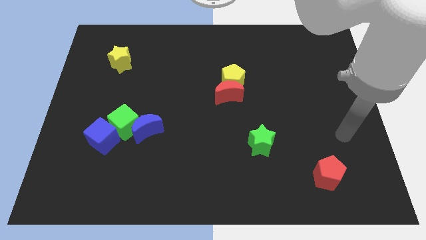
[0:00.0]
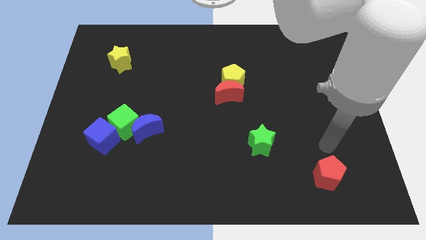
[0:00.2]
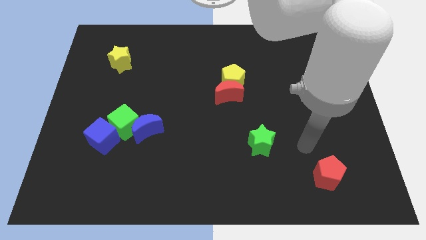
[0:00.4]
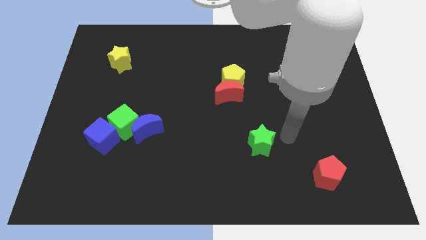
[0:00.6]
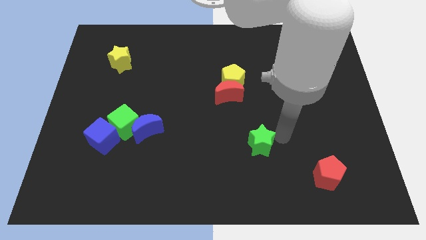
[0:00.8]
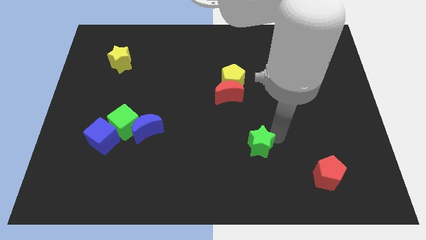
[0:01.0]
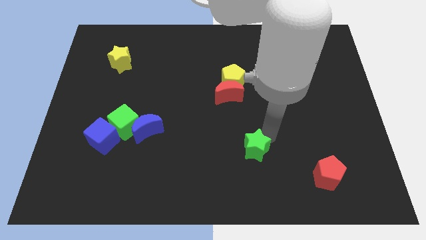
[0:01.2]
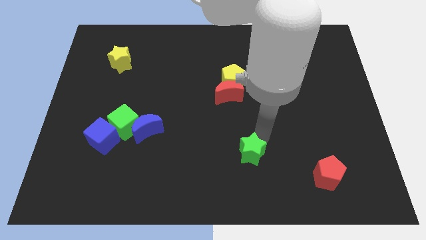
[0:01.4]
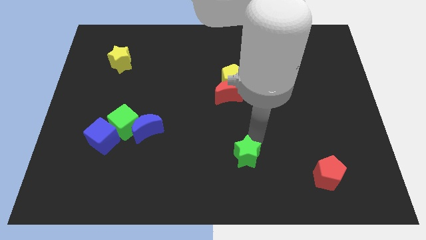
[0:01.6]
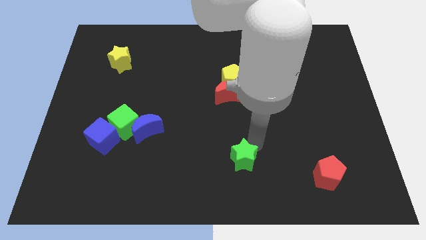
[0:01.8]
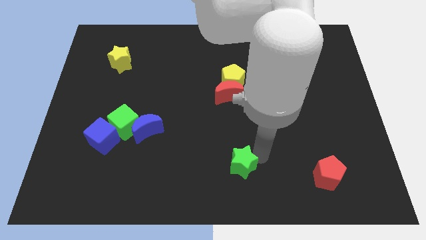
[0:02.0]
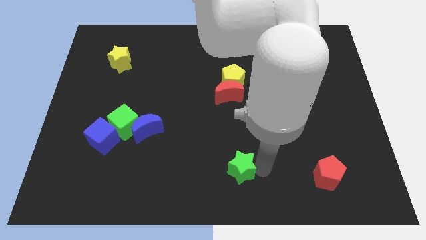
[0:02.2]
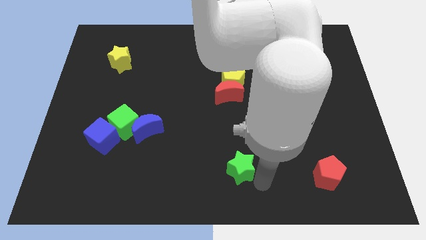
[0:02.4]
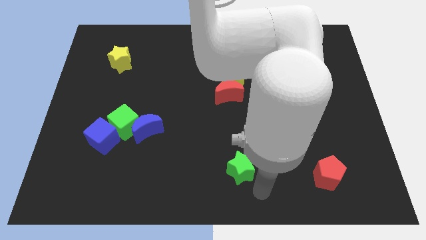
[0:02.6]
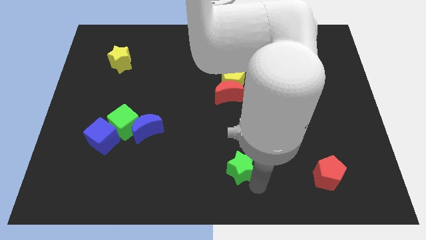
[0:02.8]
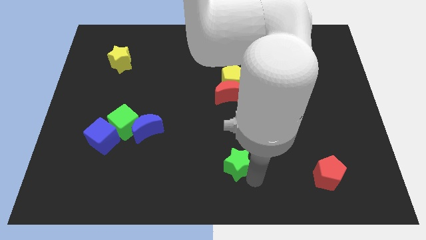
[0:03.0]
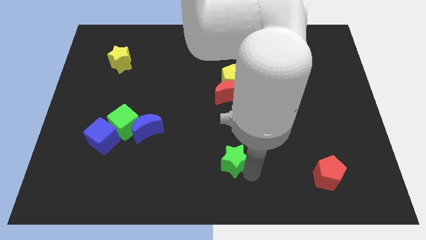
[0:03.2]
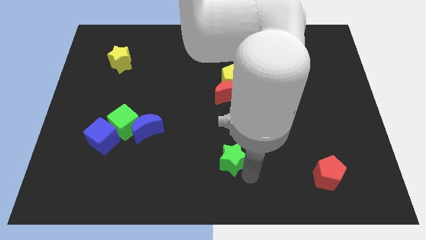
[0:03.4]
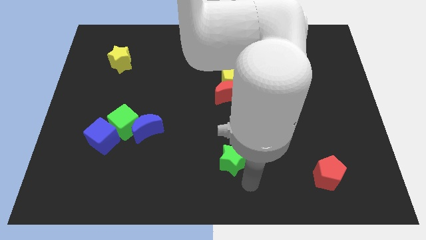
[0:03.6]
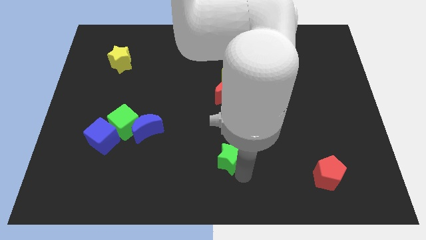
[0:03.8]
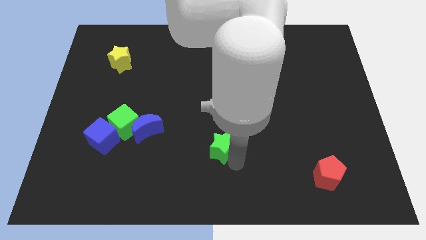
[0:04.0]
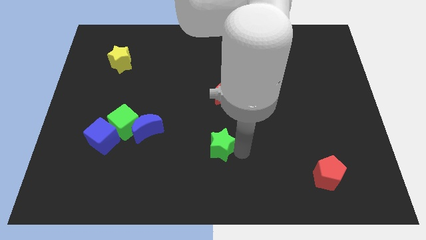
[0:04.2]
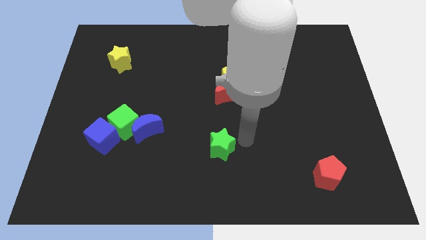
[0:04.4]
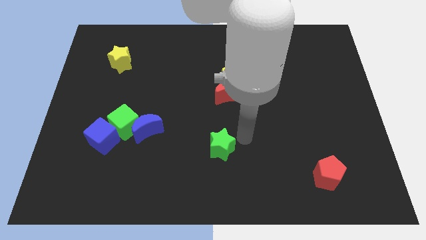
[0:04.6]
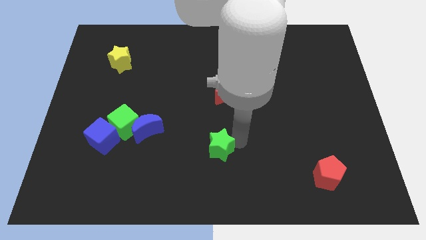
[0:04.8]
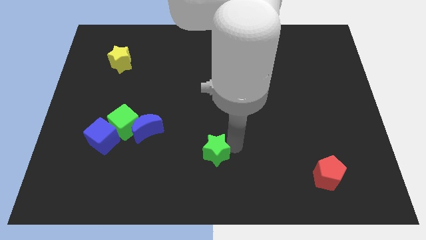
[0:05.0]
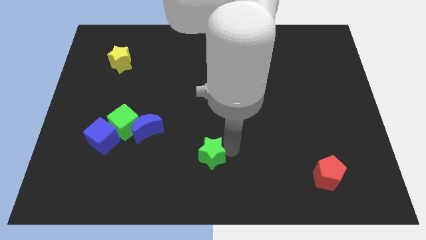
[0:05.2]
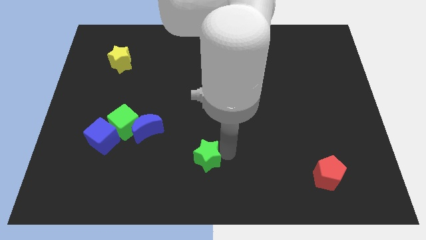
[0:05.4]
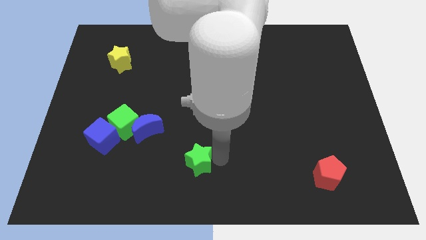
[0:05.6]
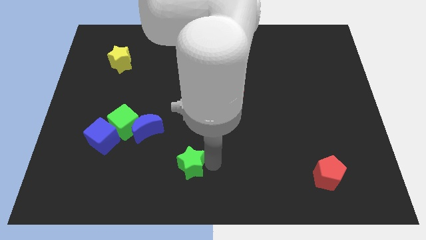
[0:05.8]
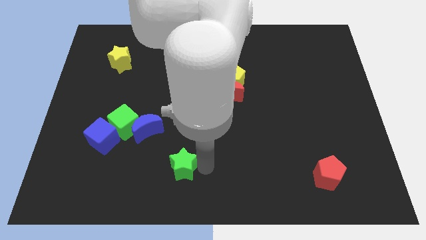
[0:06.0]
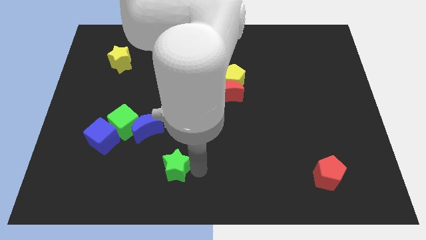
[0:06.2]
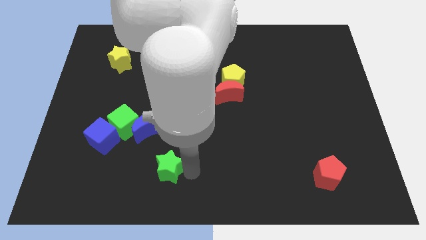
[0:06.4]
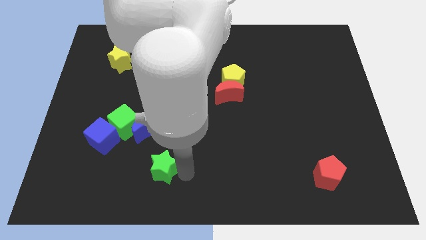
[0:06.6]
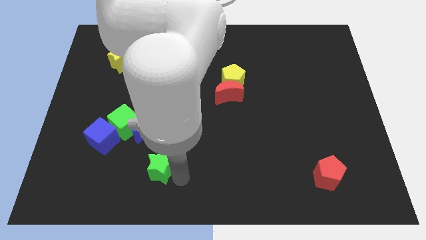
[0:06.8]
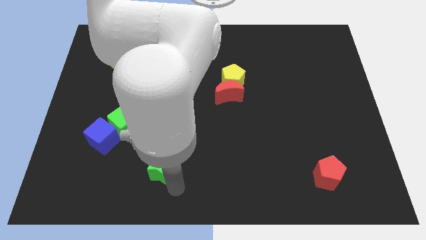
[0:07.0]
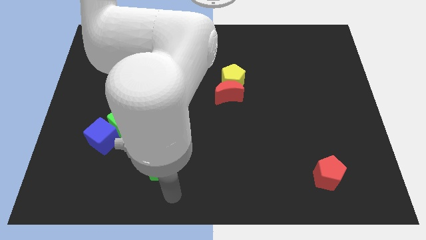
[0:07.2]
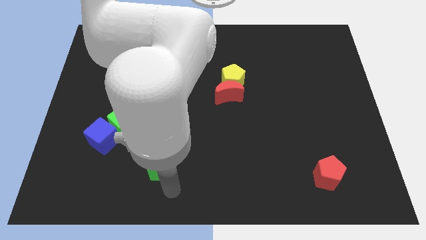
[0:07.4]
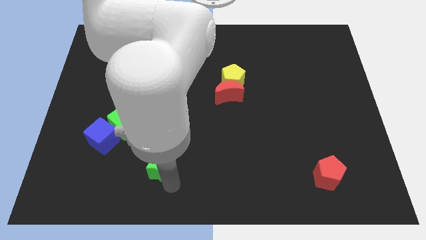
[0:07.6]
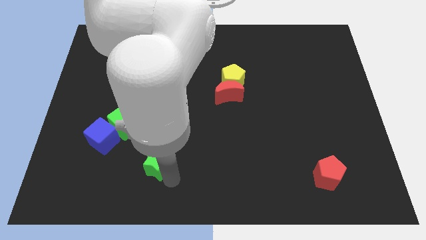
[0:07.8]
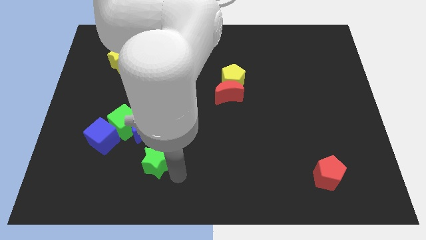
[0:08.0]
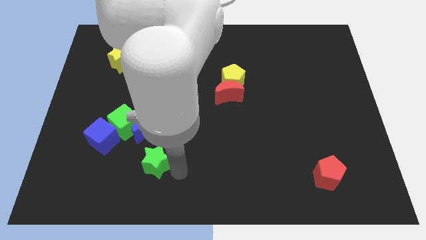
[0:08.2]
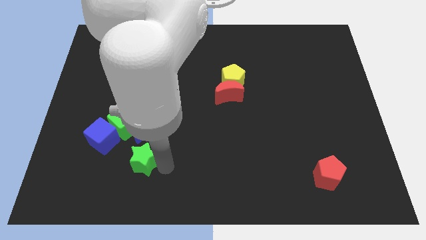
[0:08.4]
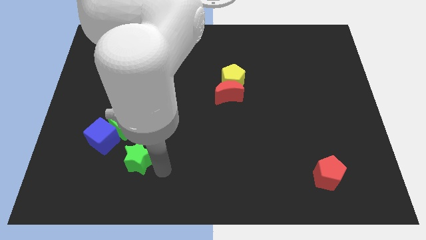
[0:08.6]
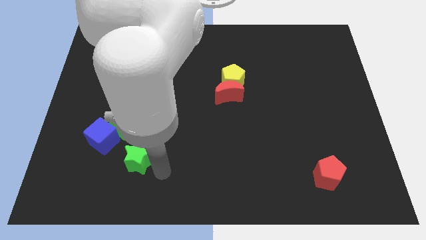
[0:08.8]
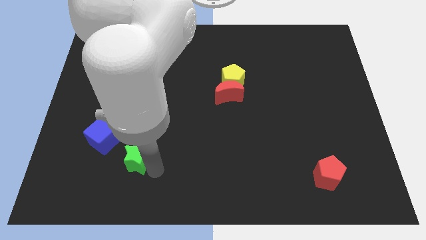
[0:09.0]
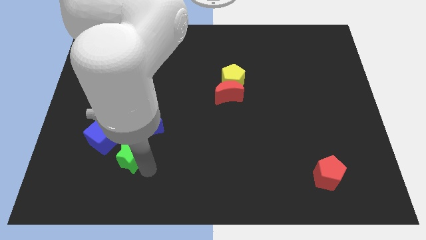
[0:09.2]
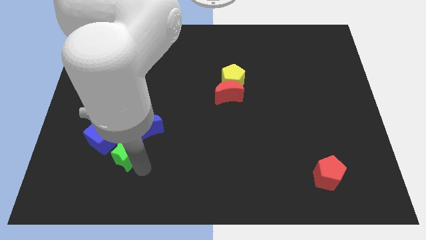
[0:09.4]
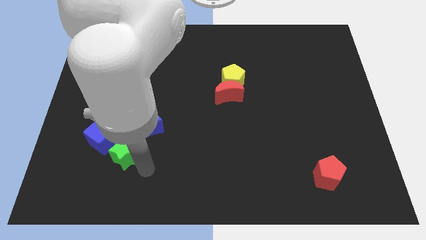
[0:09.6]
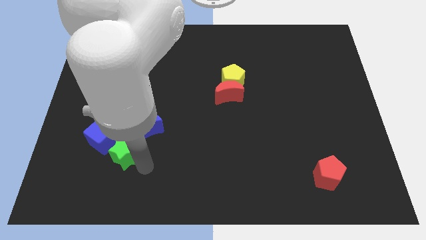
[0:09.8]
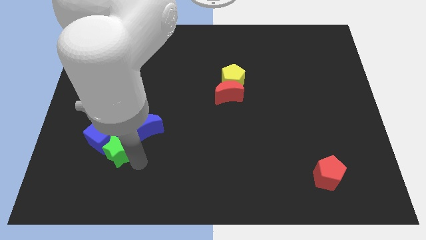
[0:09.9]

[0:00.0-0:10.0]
put the green star to the blue cube

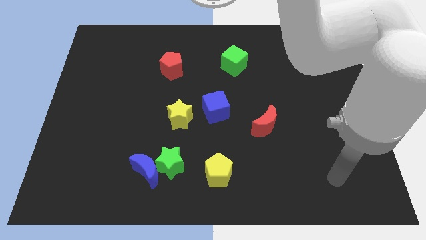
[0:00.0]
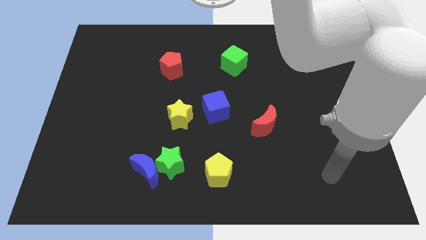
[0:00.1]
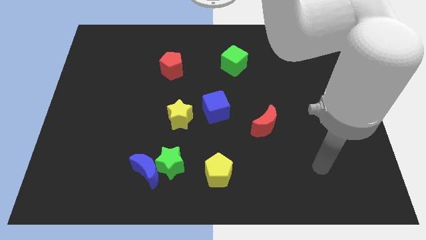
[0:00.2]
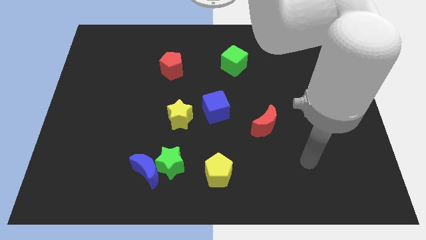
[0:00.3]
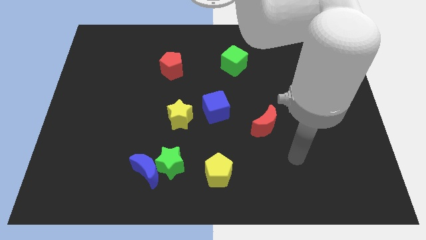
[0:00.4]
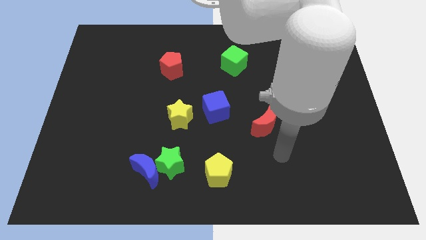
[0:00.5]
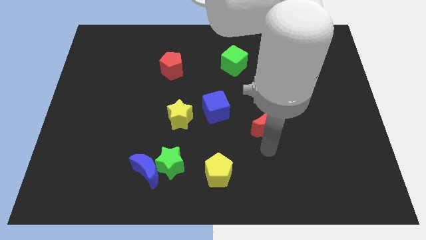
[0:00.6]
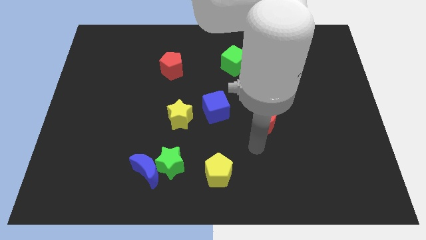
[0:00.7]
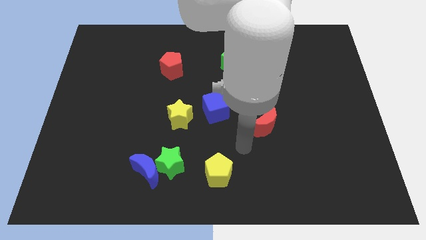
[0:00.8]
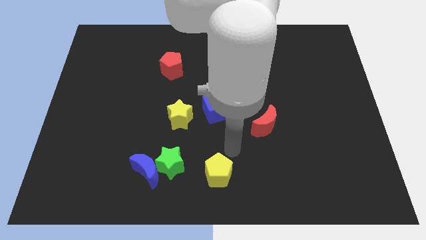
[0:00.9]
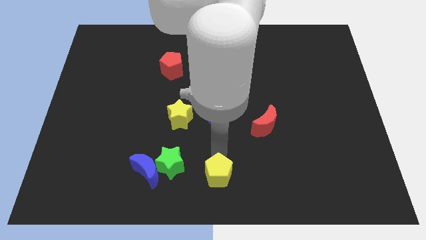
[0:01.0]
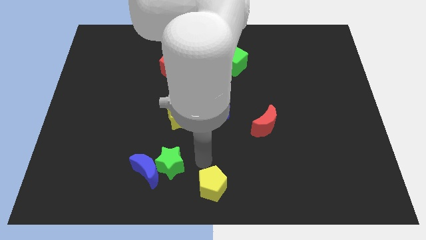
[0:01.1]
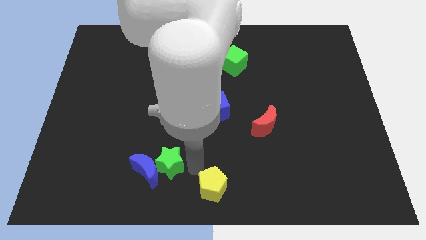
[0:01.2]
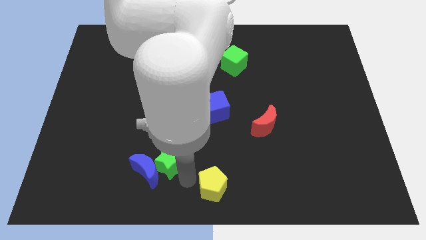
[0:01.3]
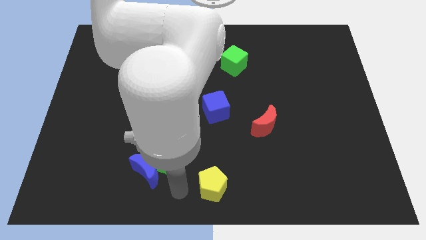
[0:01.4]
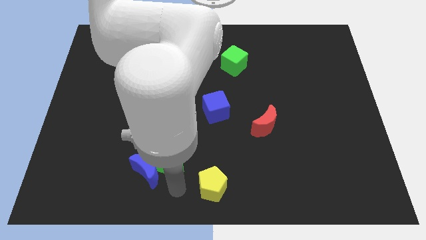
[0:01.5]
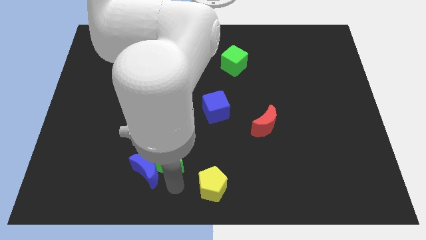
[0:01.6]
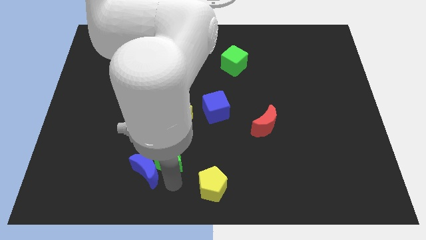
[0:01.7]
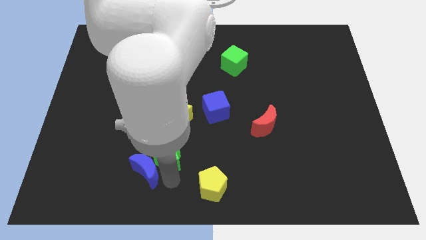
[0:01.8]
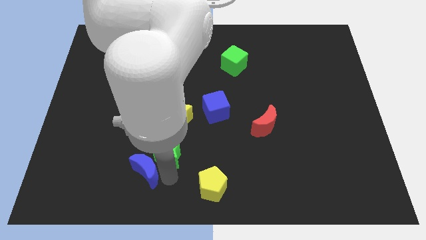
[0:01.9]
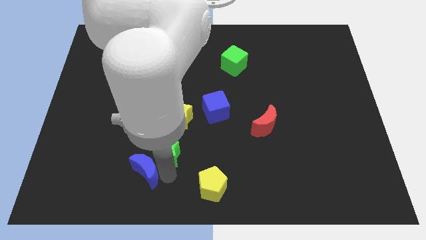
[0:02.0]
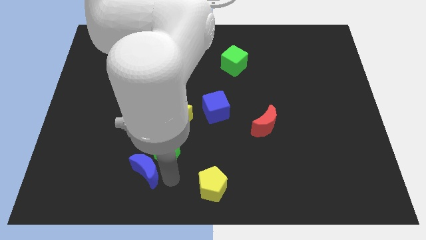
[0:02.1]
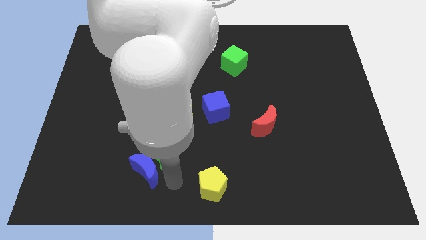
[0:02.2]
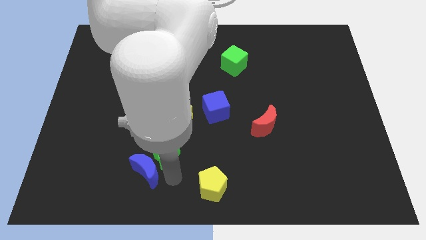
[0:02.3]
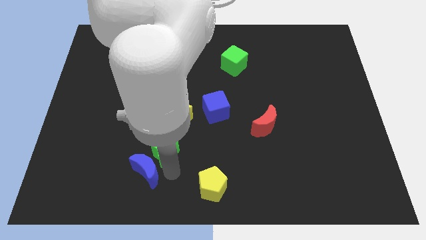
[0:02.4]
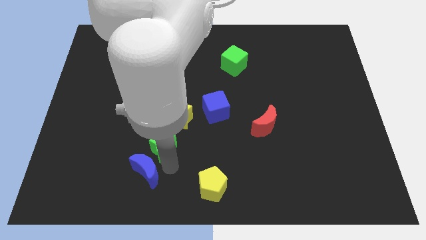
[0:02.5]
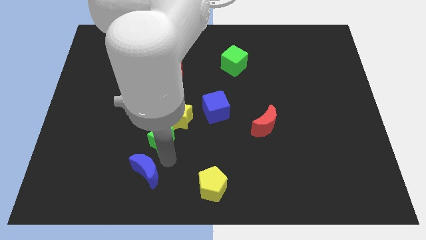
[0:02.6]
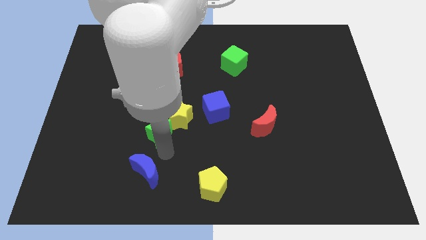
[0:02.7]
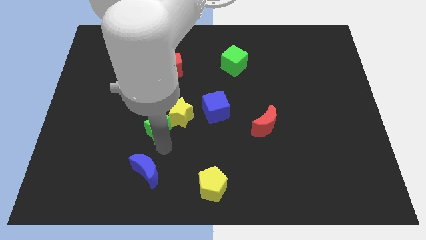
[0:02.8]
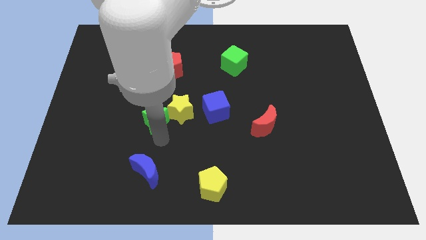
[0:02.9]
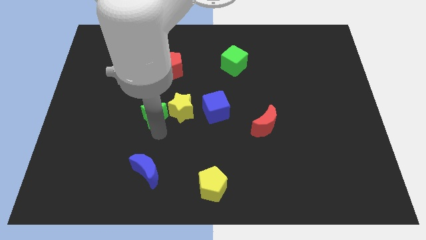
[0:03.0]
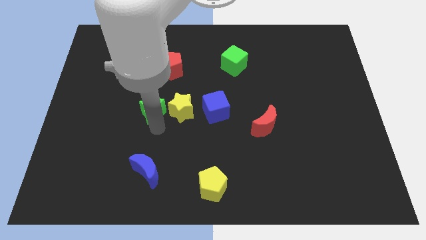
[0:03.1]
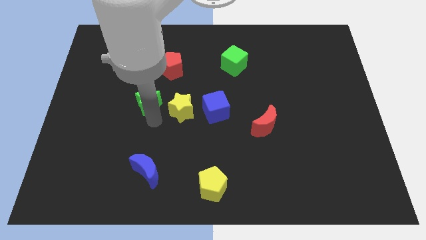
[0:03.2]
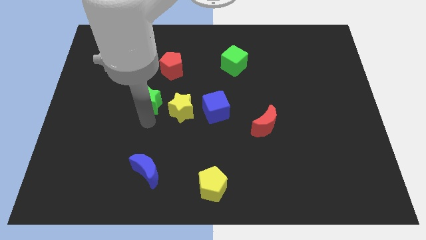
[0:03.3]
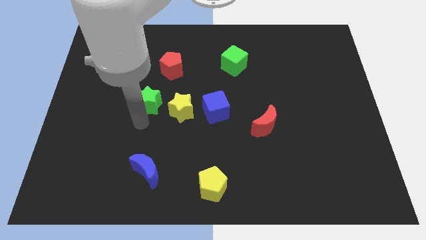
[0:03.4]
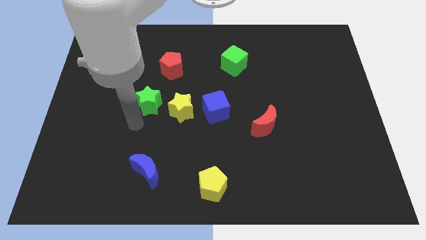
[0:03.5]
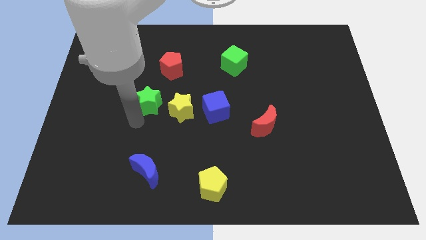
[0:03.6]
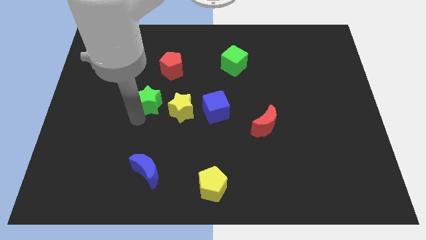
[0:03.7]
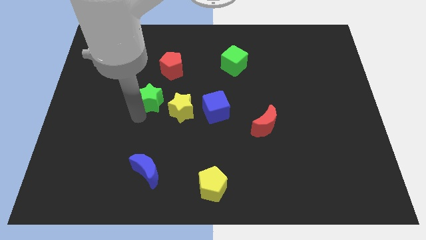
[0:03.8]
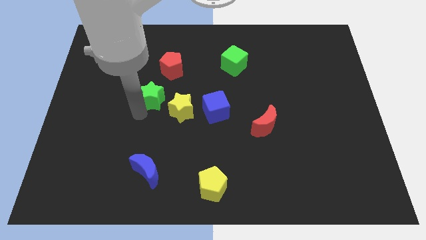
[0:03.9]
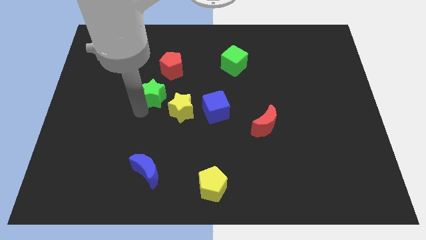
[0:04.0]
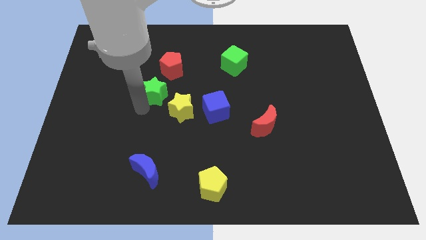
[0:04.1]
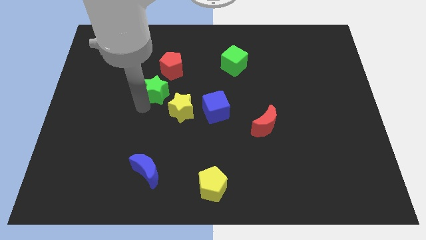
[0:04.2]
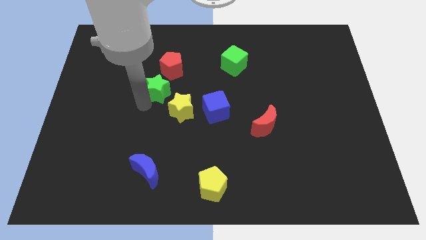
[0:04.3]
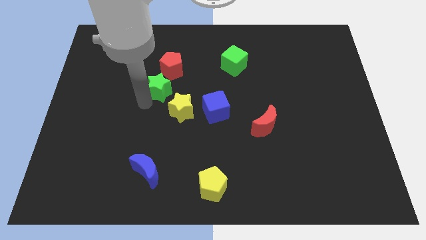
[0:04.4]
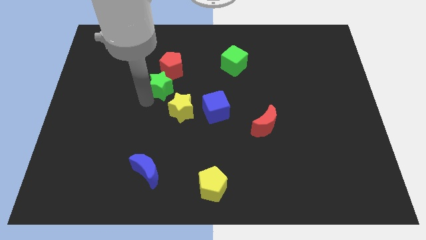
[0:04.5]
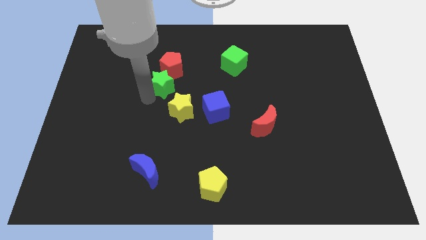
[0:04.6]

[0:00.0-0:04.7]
slide the green star towards the red pentagon
